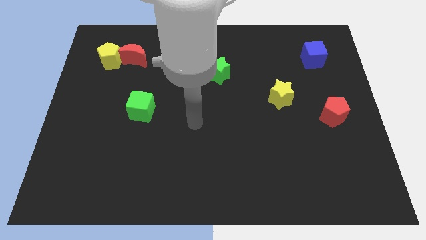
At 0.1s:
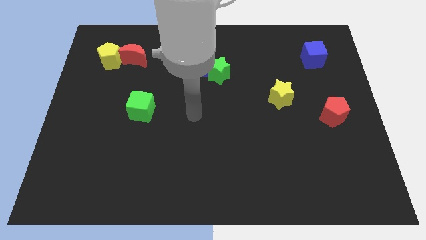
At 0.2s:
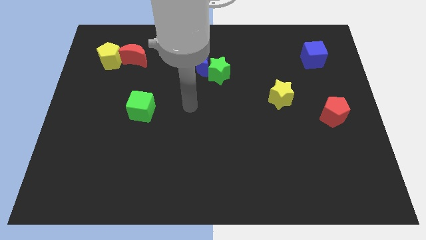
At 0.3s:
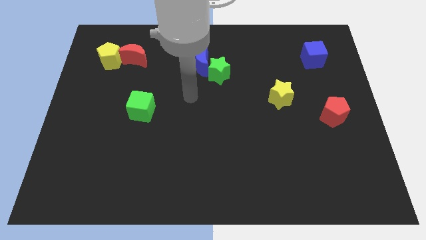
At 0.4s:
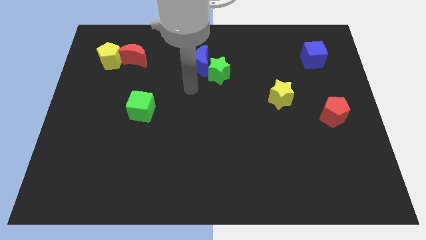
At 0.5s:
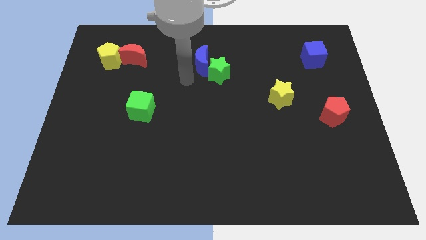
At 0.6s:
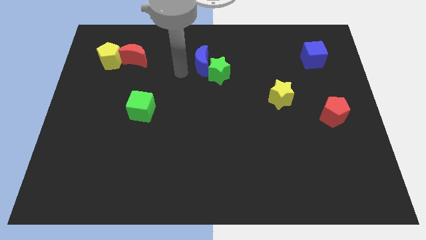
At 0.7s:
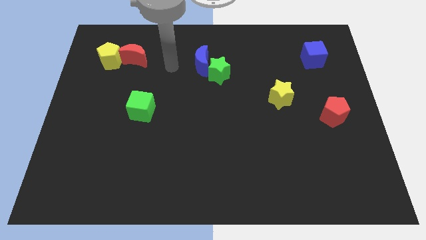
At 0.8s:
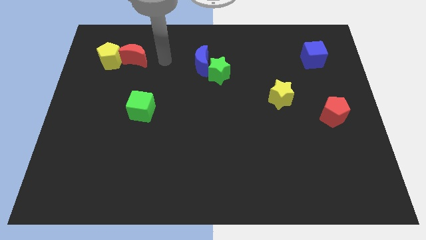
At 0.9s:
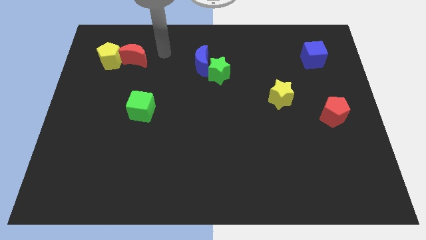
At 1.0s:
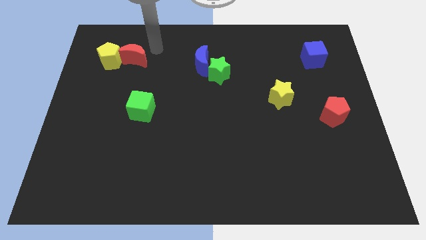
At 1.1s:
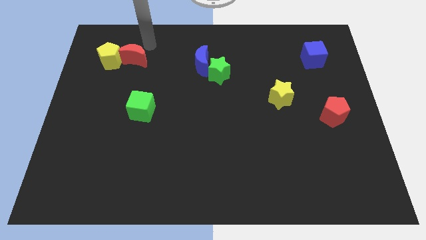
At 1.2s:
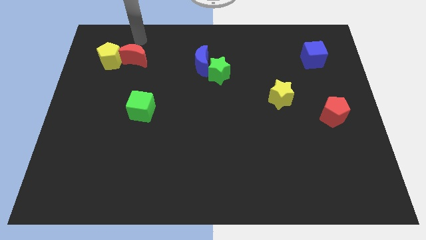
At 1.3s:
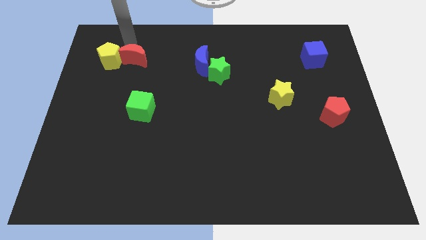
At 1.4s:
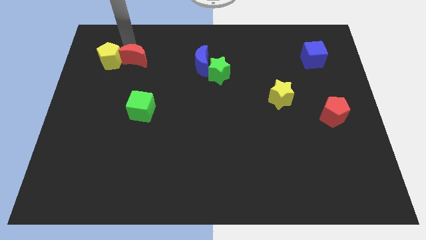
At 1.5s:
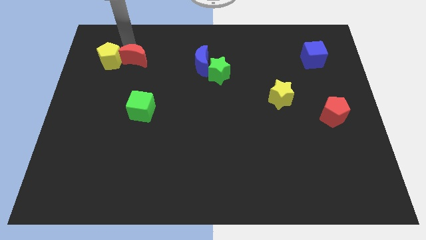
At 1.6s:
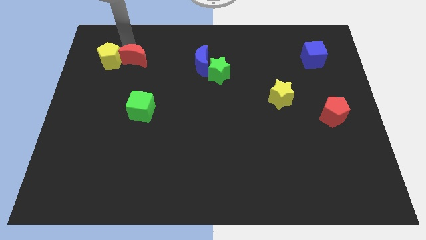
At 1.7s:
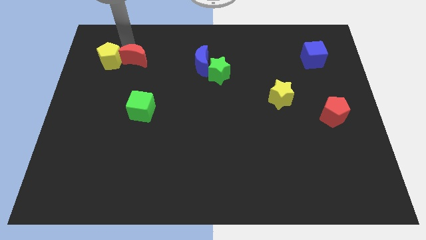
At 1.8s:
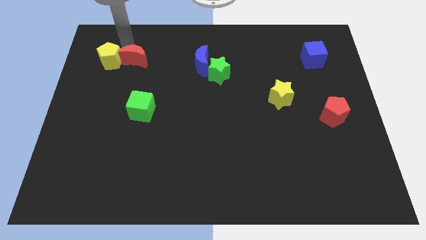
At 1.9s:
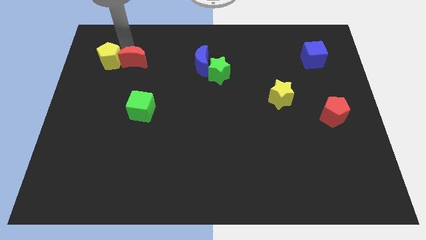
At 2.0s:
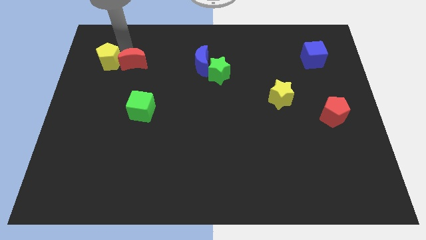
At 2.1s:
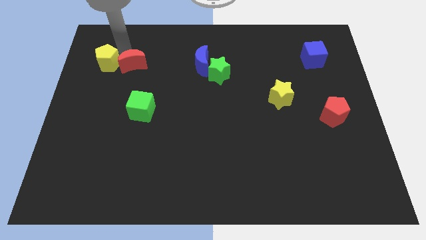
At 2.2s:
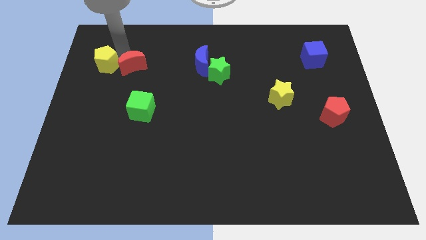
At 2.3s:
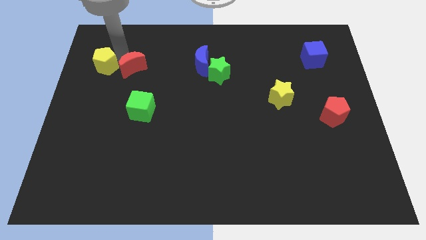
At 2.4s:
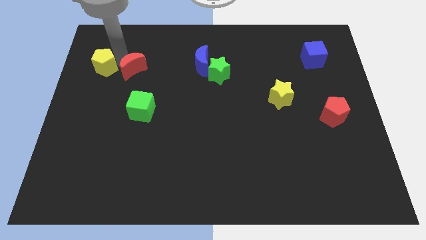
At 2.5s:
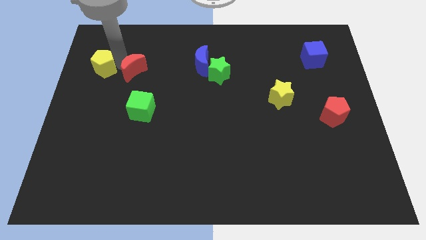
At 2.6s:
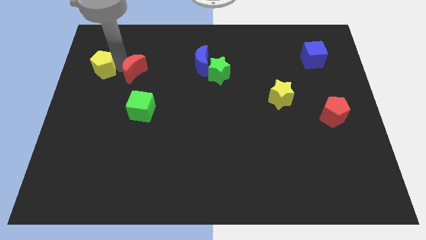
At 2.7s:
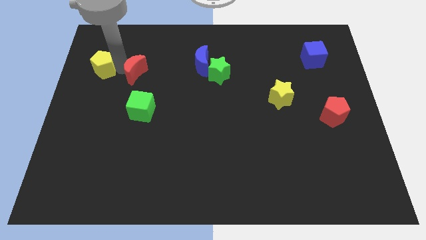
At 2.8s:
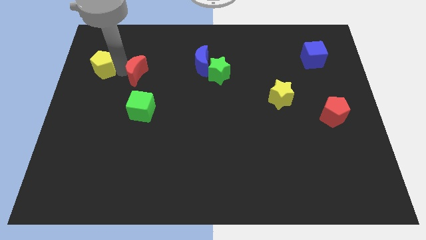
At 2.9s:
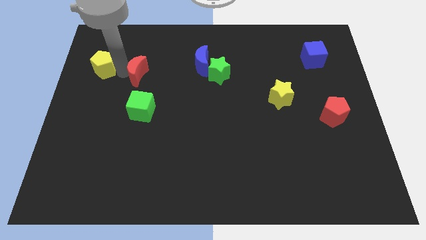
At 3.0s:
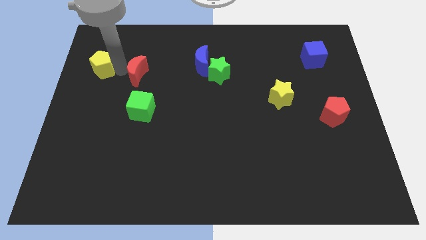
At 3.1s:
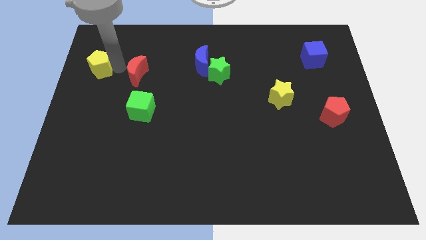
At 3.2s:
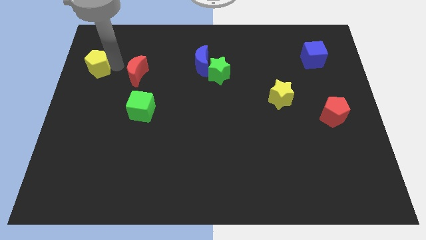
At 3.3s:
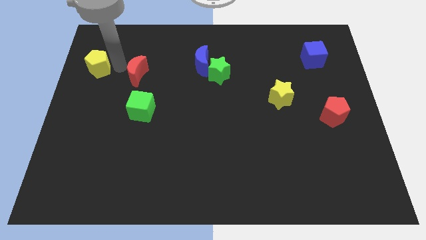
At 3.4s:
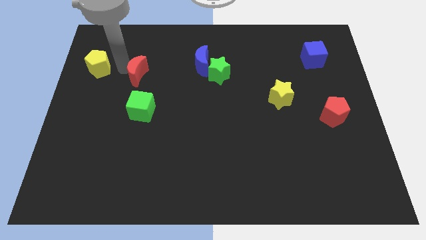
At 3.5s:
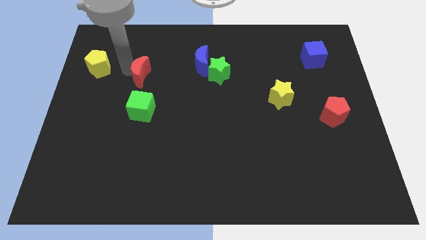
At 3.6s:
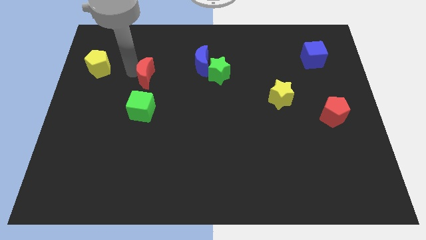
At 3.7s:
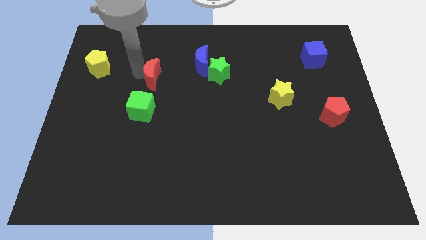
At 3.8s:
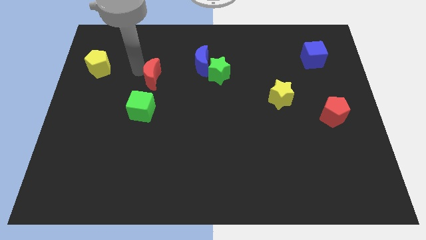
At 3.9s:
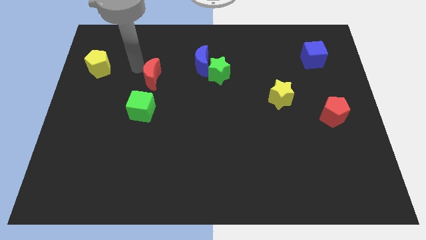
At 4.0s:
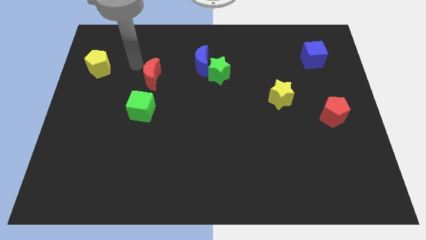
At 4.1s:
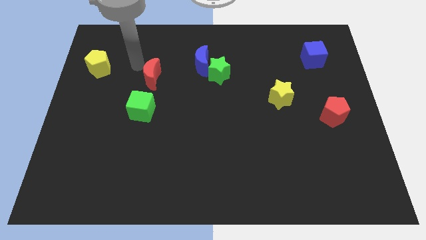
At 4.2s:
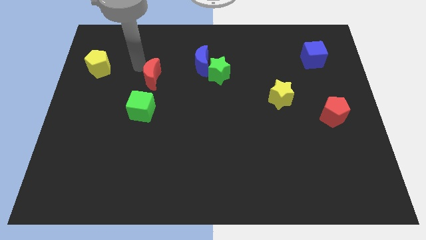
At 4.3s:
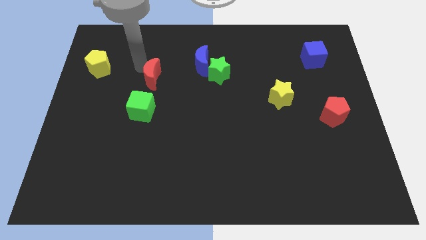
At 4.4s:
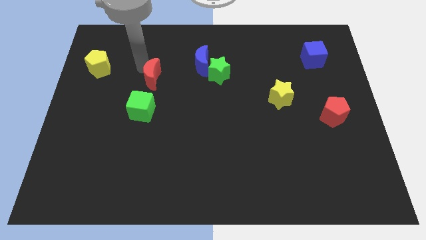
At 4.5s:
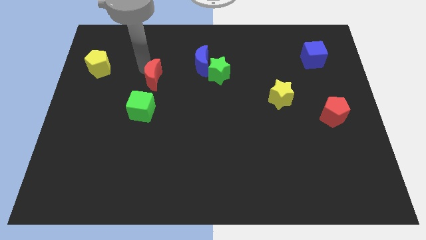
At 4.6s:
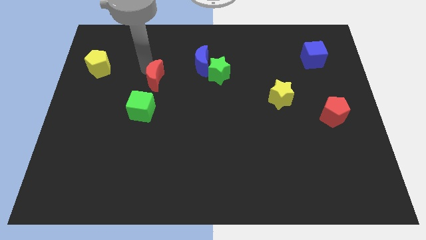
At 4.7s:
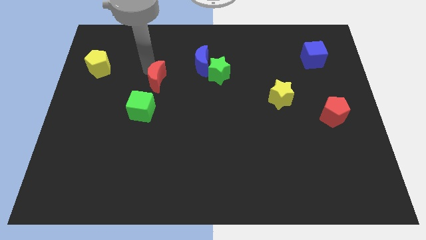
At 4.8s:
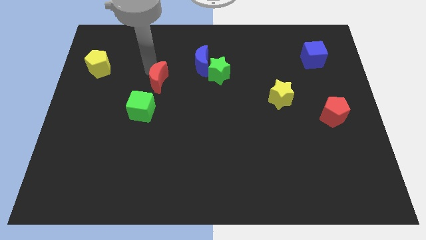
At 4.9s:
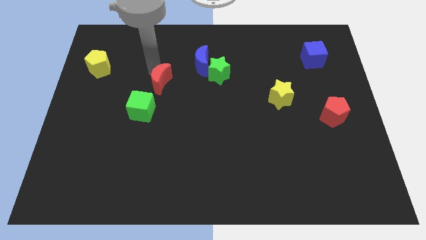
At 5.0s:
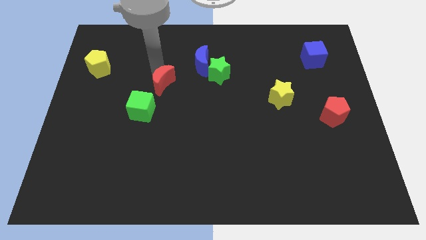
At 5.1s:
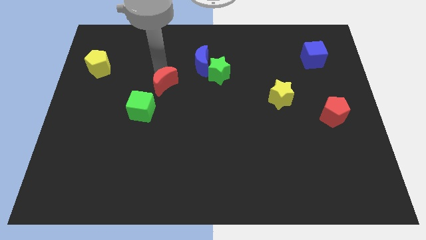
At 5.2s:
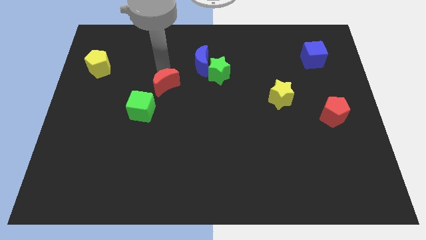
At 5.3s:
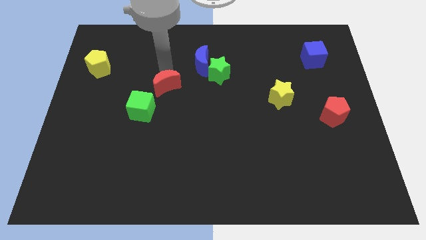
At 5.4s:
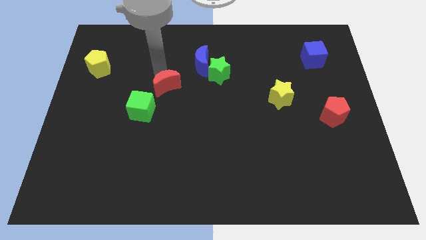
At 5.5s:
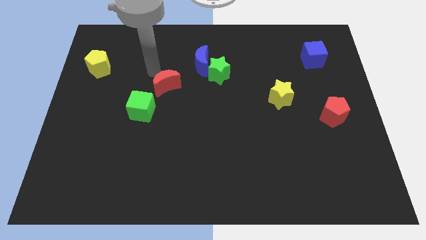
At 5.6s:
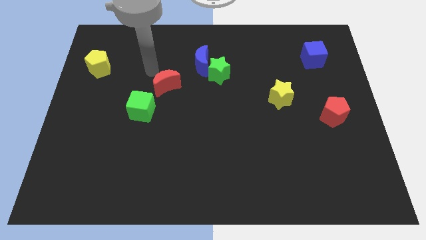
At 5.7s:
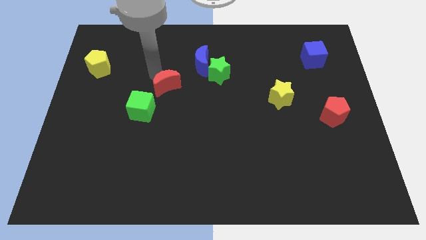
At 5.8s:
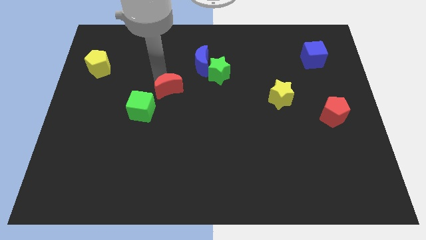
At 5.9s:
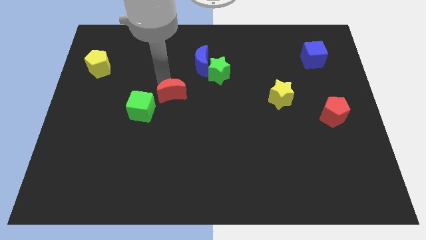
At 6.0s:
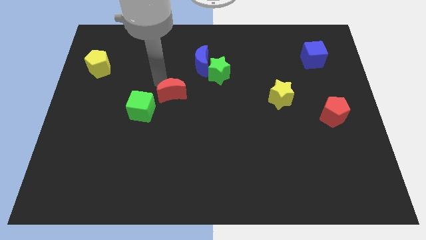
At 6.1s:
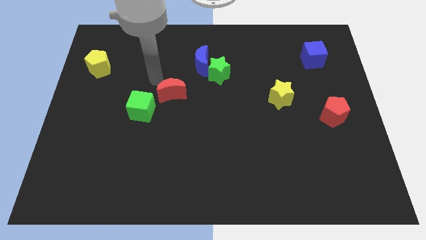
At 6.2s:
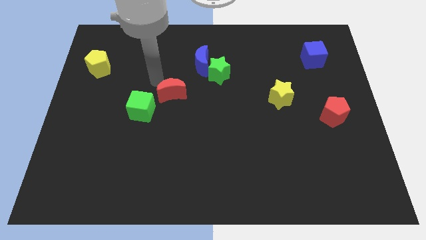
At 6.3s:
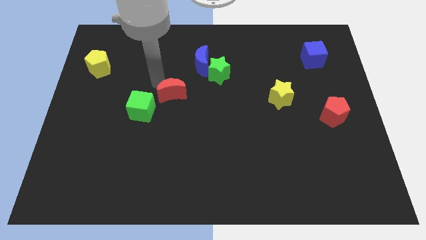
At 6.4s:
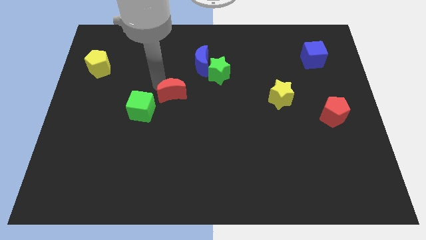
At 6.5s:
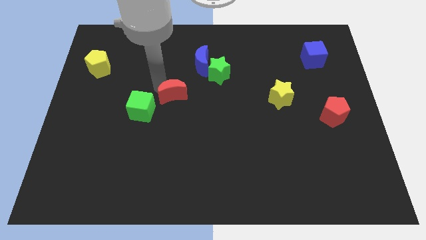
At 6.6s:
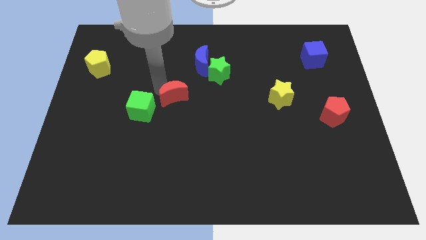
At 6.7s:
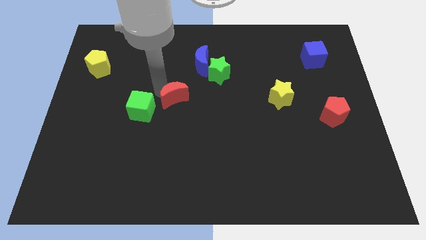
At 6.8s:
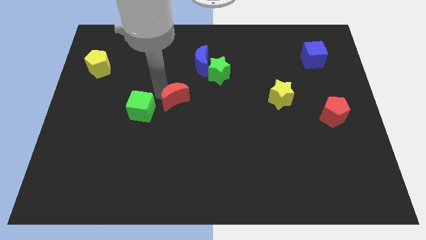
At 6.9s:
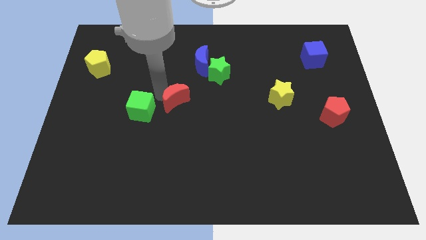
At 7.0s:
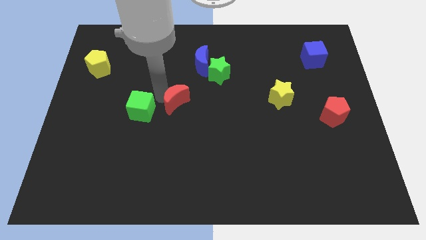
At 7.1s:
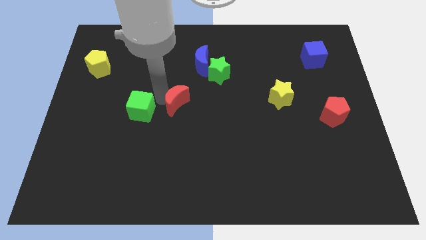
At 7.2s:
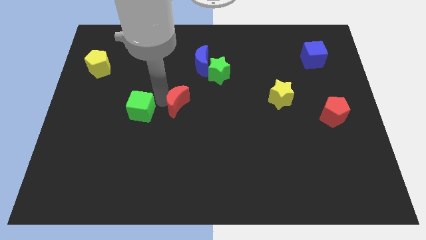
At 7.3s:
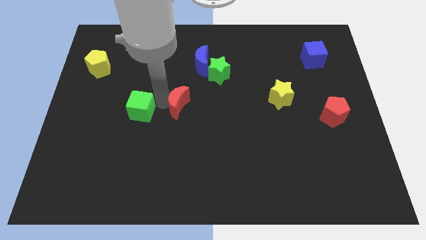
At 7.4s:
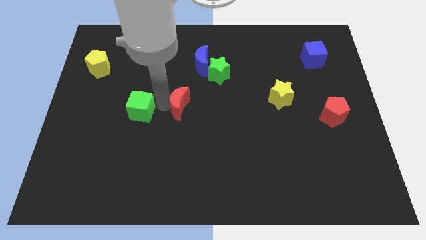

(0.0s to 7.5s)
move the red moon down and right diagonally

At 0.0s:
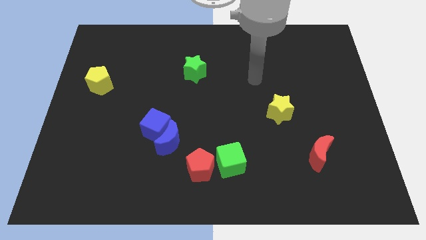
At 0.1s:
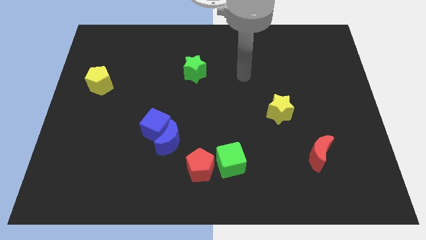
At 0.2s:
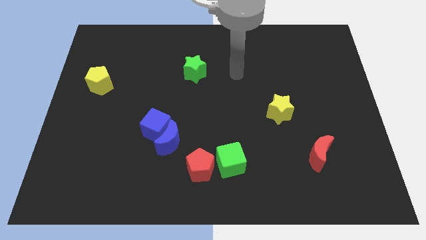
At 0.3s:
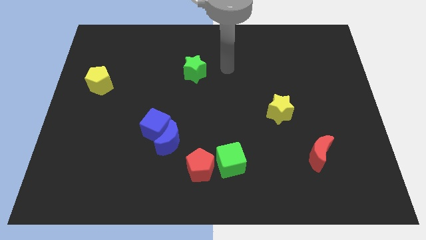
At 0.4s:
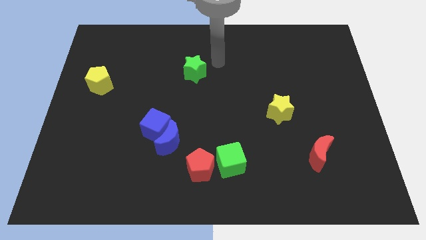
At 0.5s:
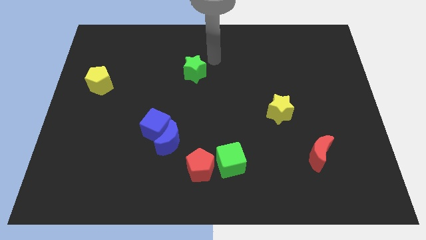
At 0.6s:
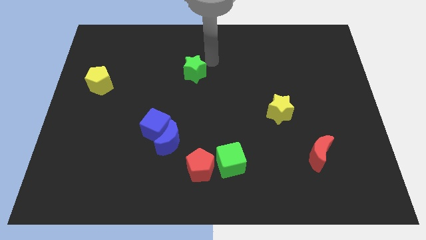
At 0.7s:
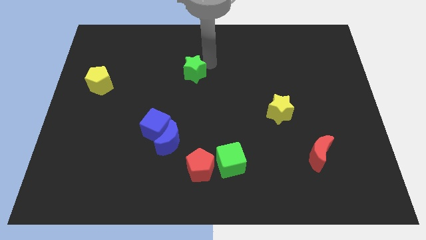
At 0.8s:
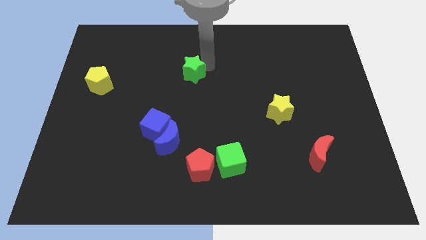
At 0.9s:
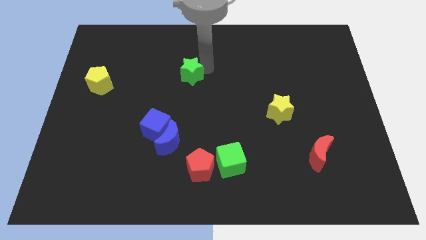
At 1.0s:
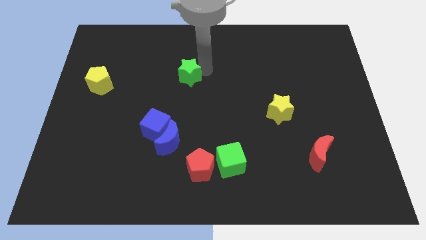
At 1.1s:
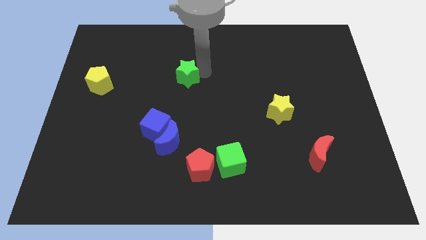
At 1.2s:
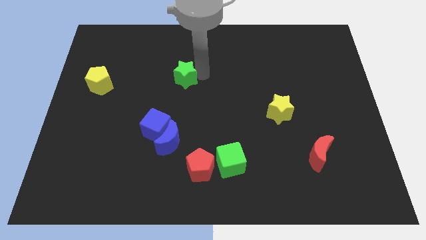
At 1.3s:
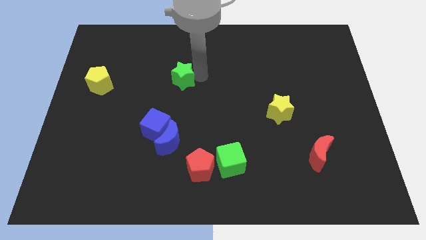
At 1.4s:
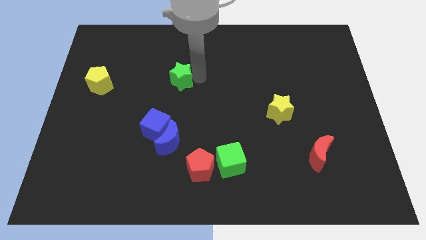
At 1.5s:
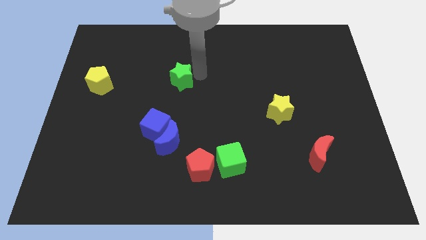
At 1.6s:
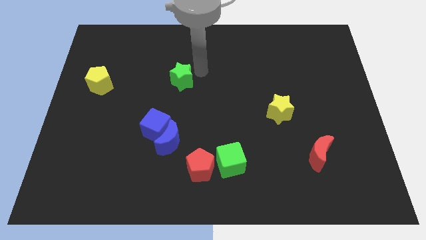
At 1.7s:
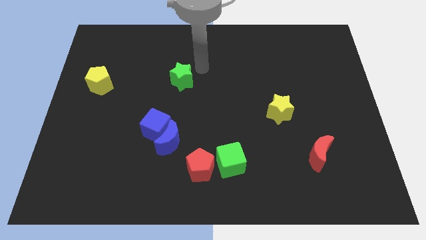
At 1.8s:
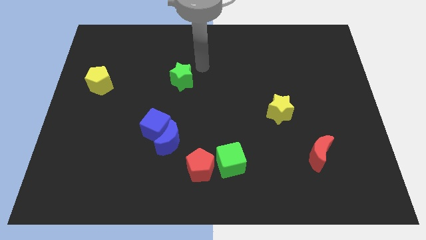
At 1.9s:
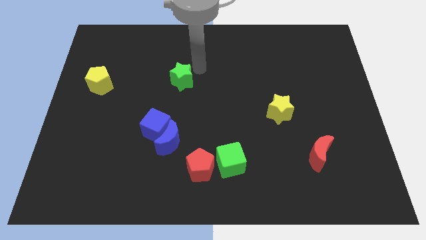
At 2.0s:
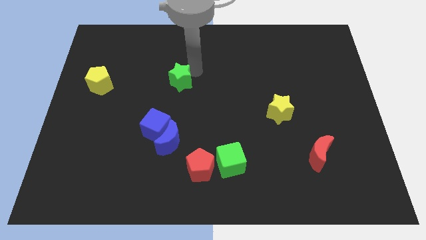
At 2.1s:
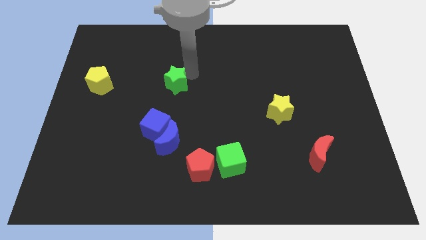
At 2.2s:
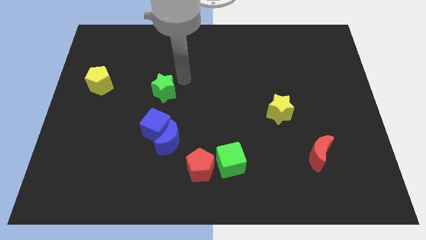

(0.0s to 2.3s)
push the green star downwards and left a little bit
